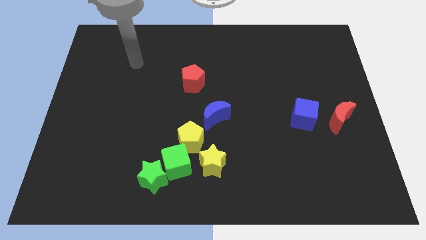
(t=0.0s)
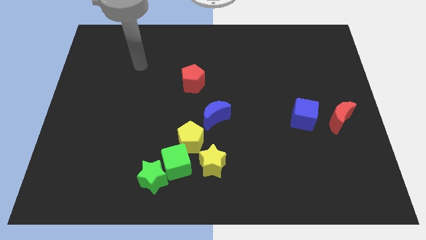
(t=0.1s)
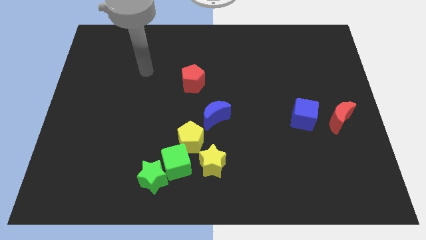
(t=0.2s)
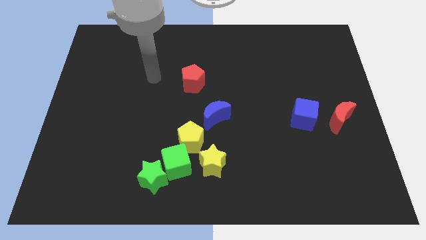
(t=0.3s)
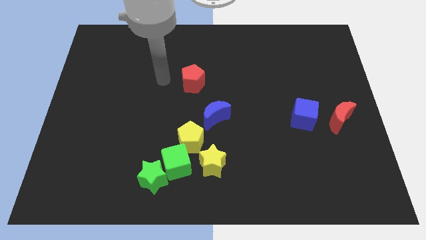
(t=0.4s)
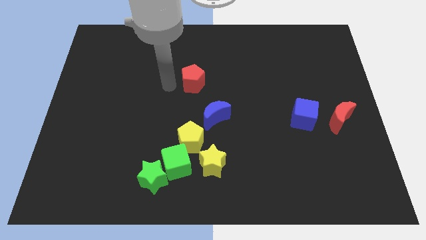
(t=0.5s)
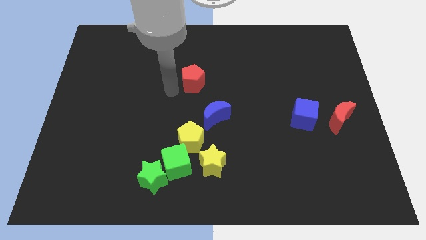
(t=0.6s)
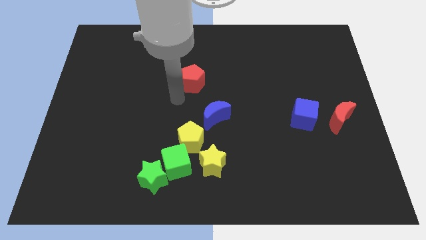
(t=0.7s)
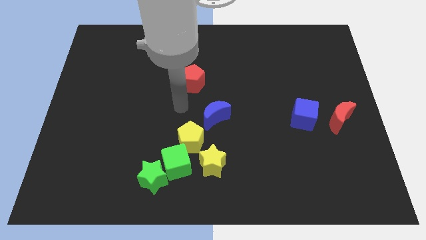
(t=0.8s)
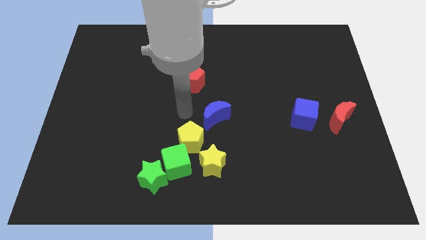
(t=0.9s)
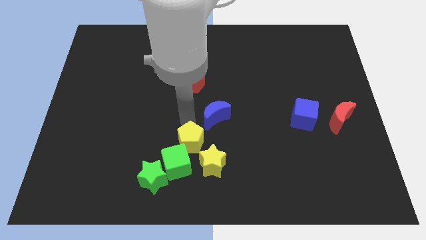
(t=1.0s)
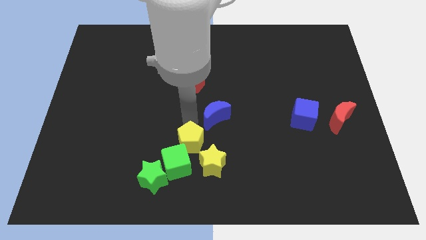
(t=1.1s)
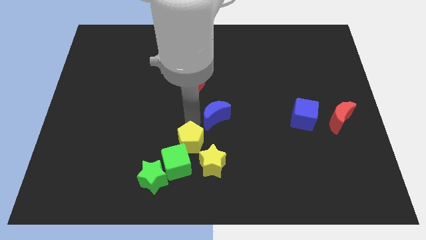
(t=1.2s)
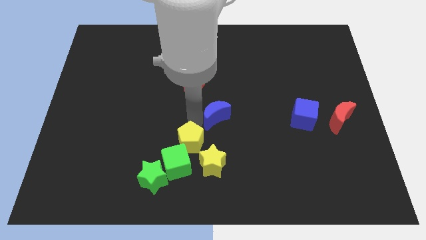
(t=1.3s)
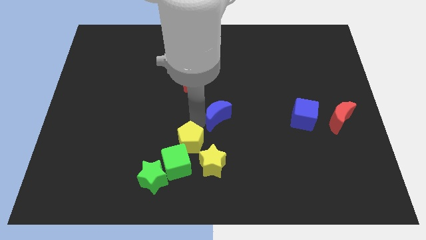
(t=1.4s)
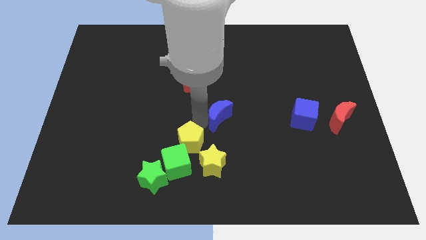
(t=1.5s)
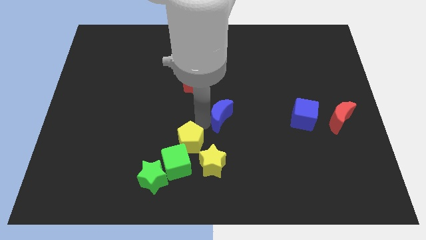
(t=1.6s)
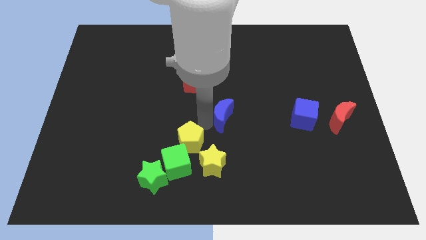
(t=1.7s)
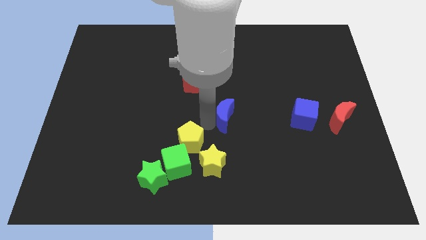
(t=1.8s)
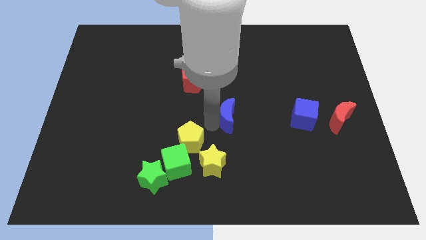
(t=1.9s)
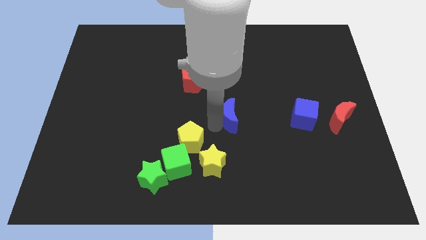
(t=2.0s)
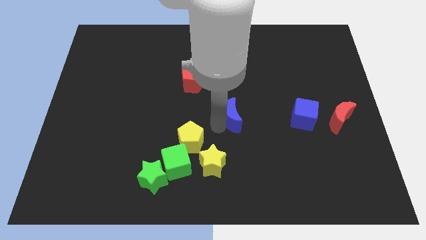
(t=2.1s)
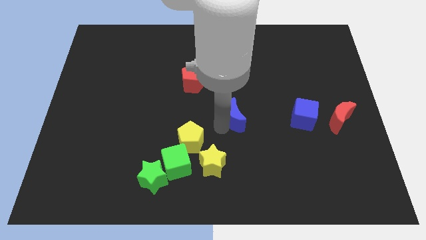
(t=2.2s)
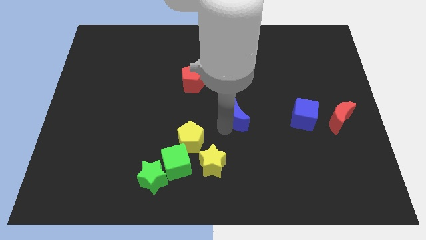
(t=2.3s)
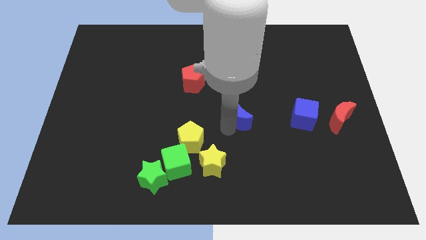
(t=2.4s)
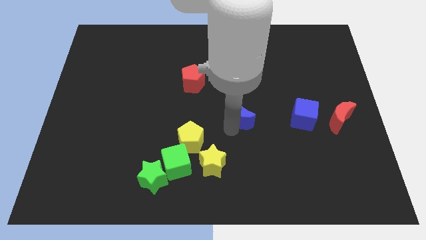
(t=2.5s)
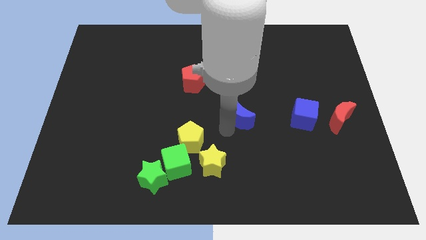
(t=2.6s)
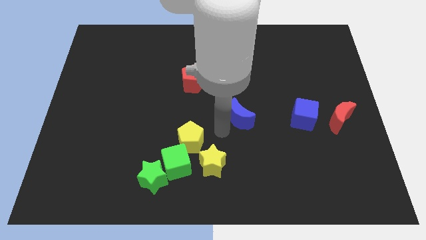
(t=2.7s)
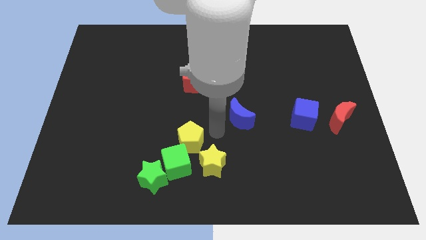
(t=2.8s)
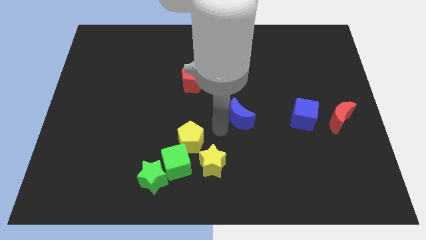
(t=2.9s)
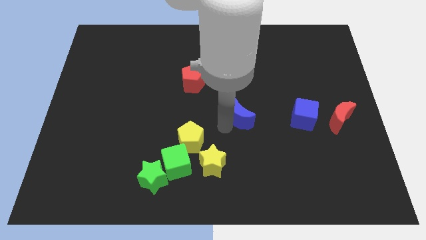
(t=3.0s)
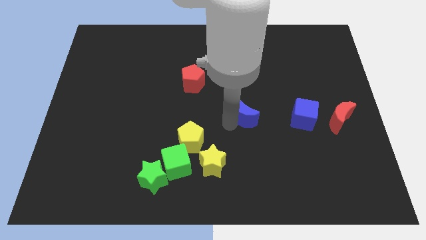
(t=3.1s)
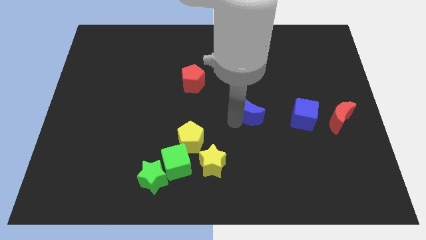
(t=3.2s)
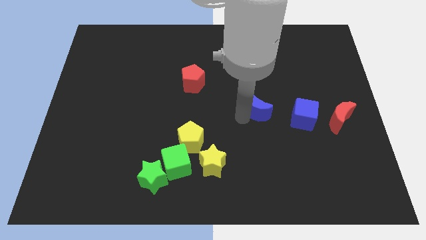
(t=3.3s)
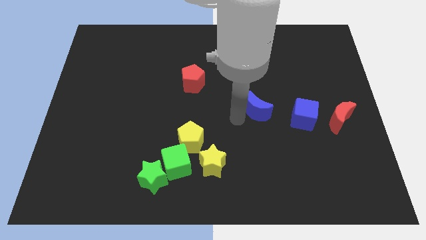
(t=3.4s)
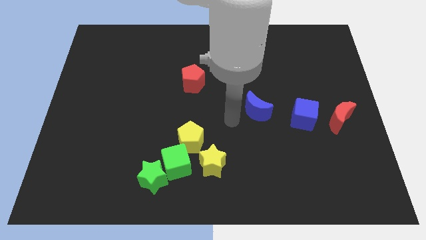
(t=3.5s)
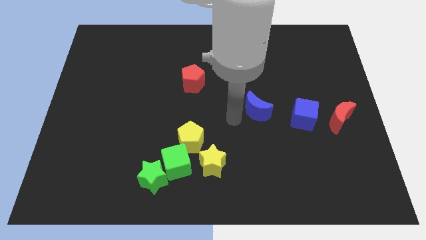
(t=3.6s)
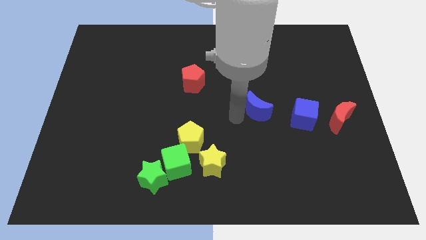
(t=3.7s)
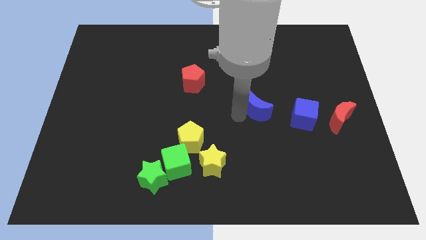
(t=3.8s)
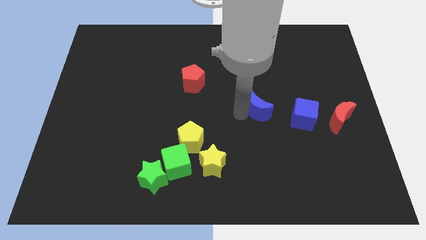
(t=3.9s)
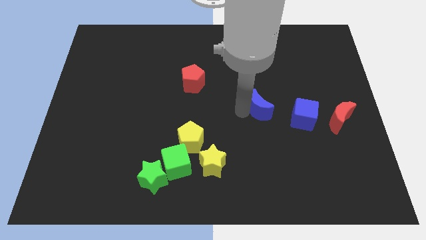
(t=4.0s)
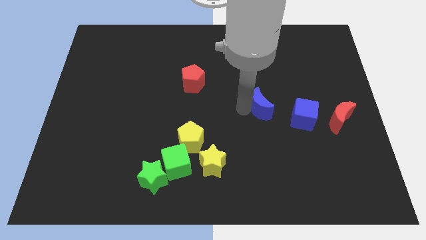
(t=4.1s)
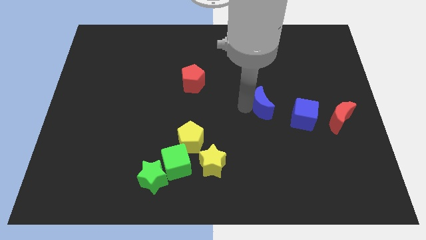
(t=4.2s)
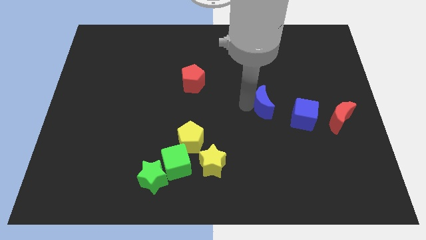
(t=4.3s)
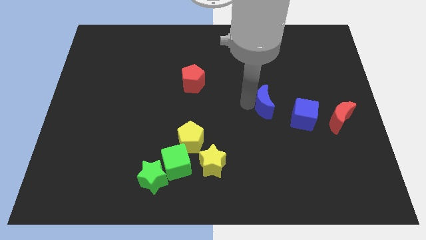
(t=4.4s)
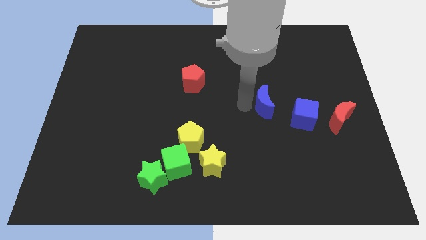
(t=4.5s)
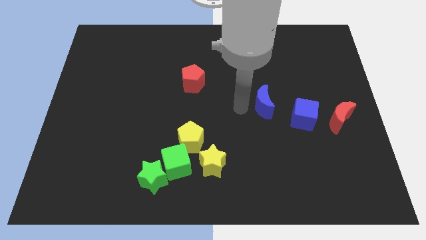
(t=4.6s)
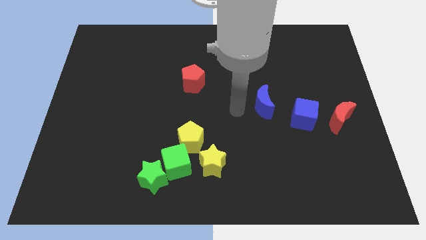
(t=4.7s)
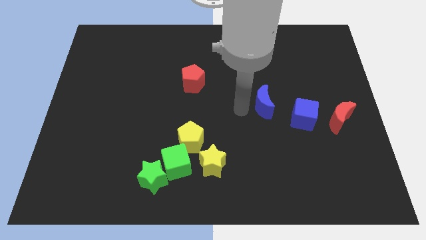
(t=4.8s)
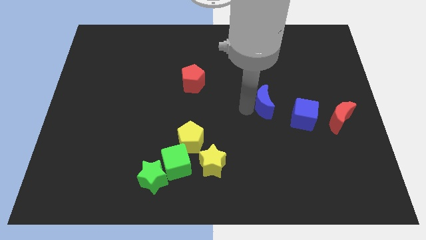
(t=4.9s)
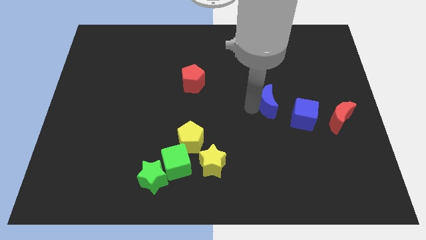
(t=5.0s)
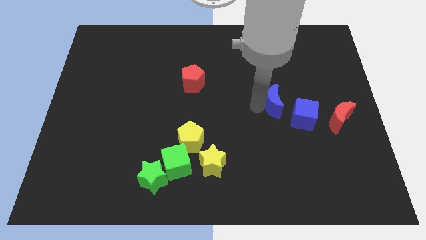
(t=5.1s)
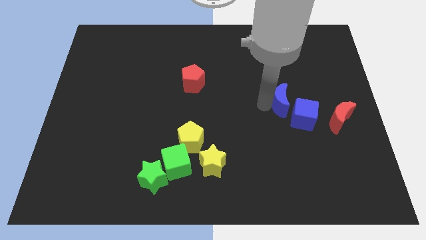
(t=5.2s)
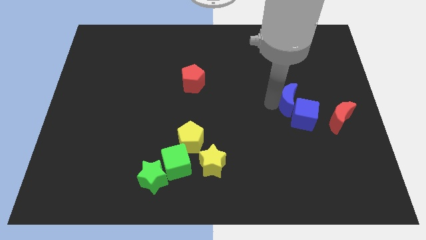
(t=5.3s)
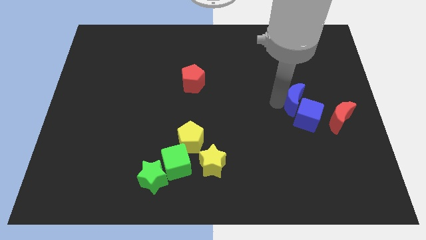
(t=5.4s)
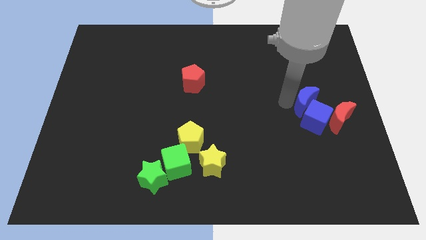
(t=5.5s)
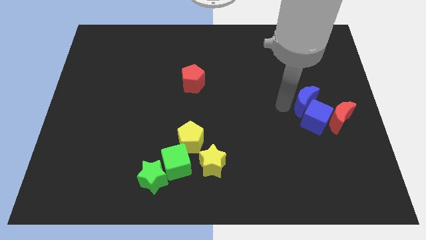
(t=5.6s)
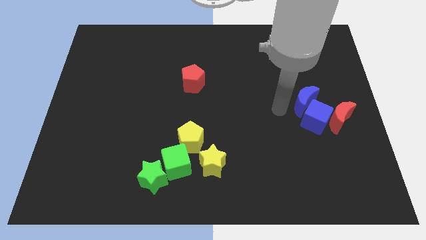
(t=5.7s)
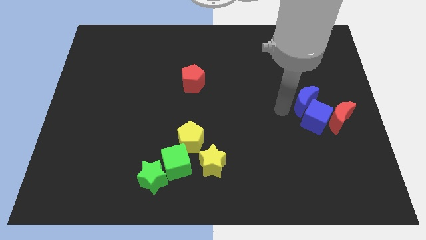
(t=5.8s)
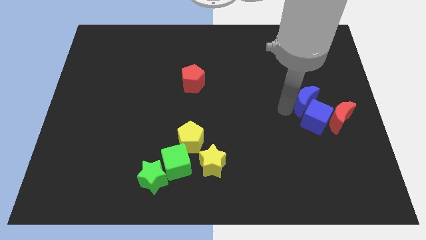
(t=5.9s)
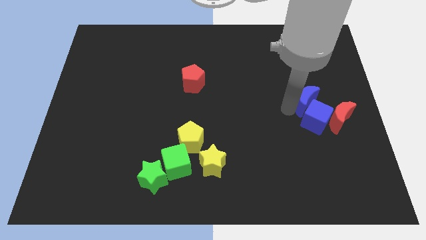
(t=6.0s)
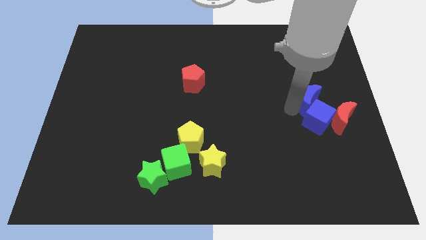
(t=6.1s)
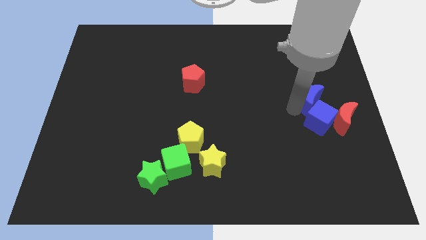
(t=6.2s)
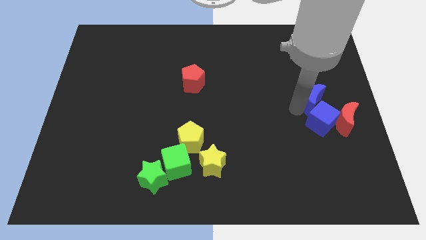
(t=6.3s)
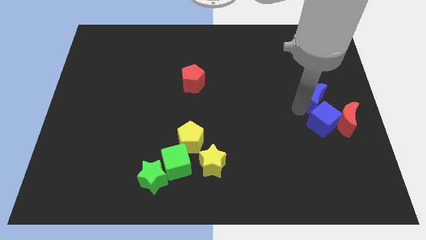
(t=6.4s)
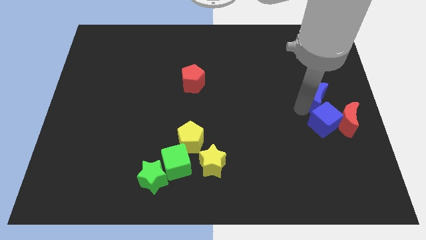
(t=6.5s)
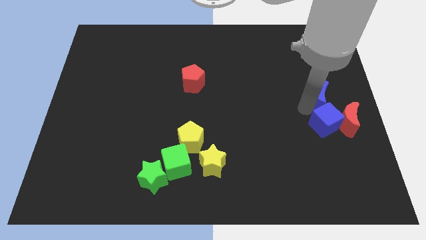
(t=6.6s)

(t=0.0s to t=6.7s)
move the blue moon to the center right
